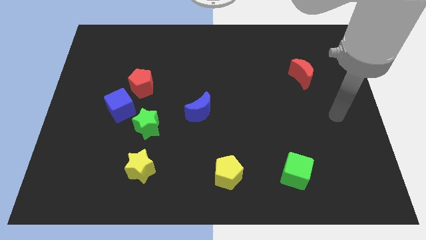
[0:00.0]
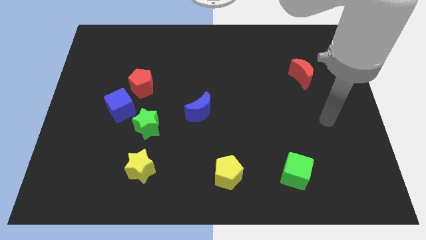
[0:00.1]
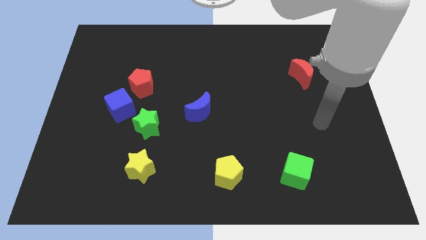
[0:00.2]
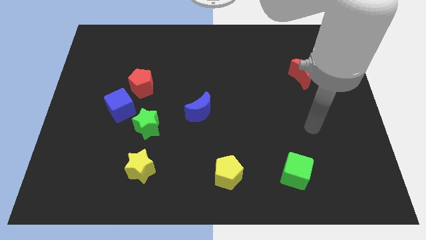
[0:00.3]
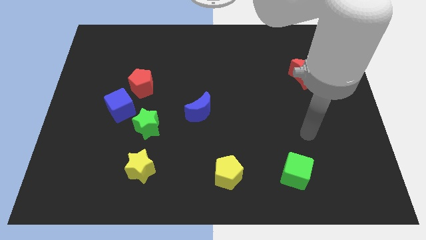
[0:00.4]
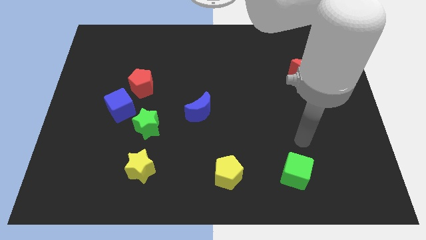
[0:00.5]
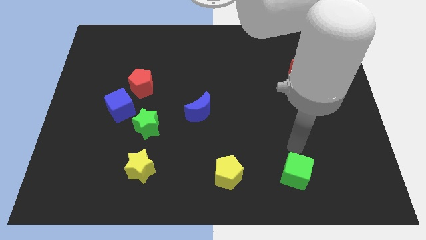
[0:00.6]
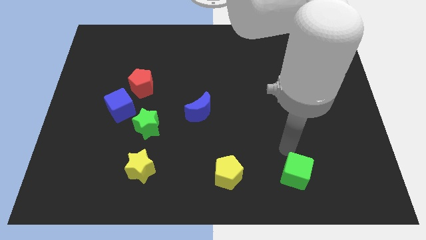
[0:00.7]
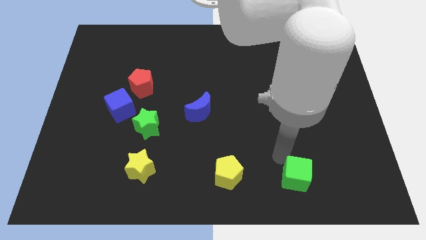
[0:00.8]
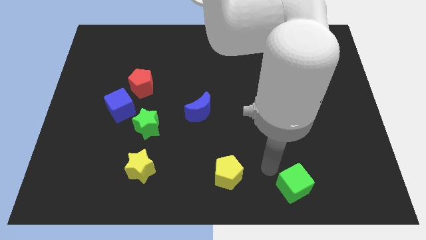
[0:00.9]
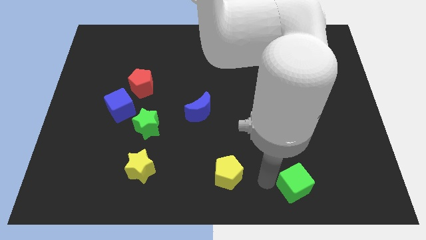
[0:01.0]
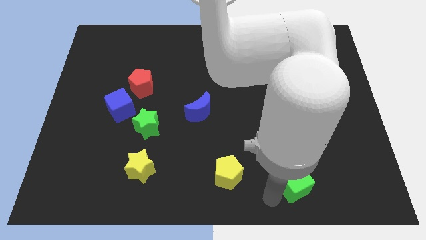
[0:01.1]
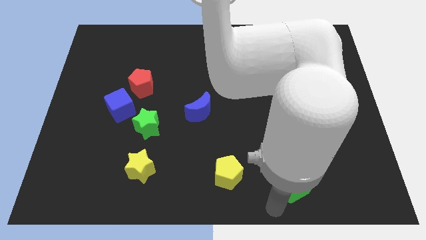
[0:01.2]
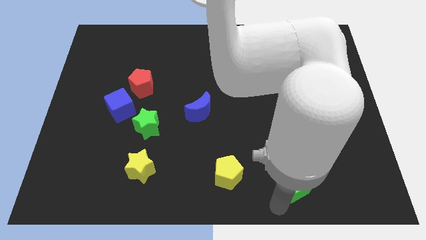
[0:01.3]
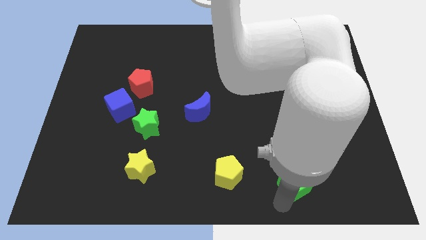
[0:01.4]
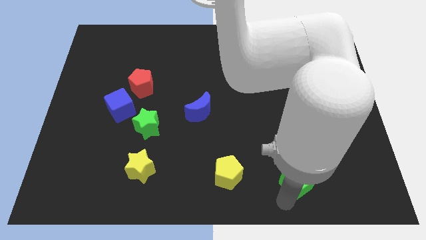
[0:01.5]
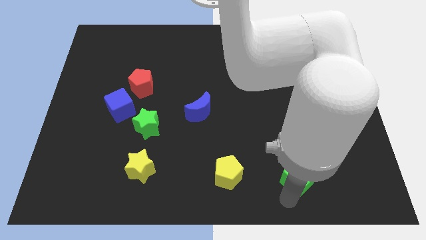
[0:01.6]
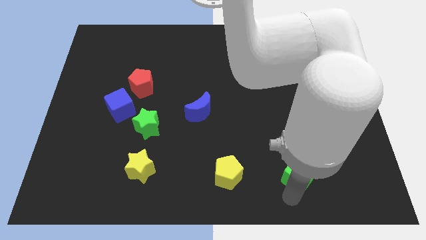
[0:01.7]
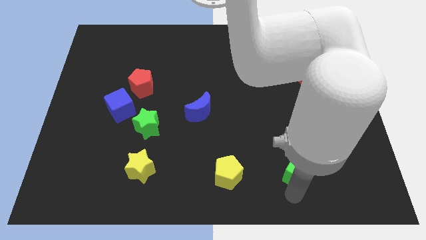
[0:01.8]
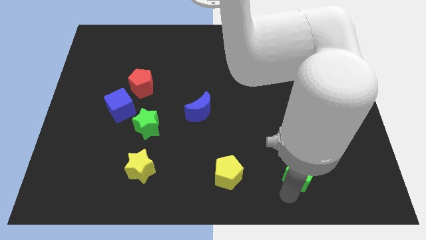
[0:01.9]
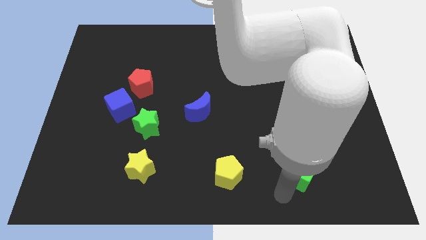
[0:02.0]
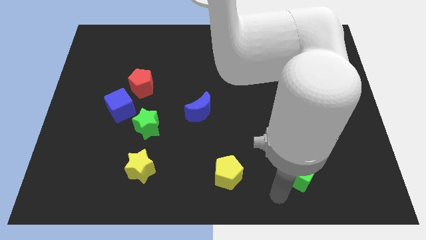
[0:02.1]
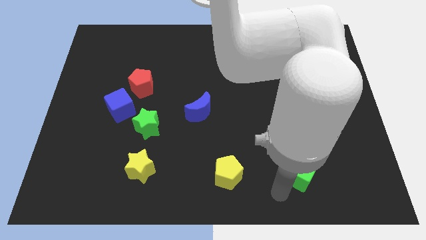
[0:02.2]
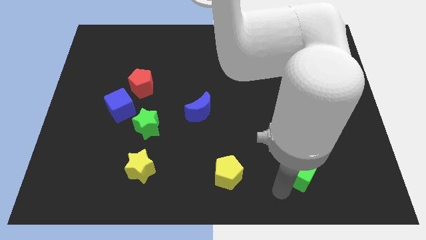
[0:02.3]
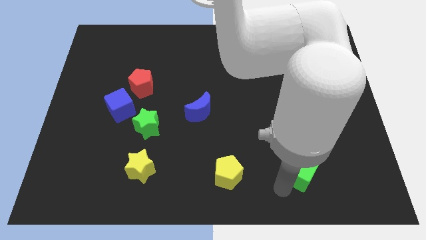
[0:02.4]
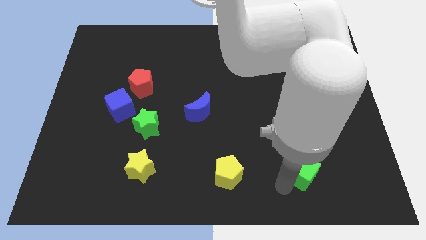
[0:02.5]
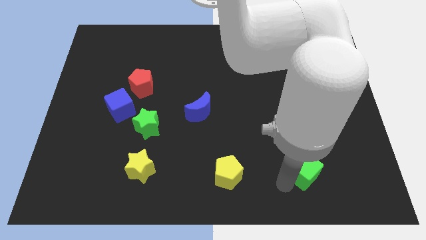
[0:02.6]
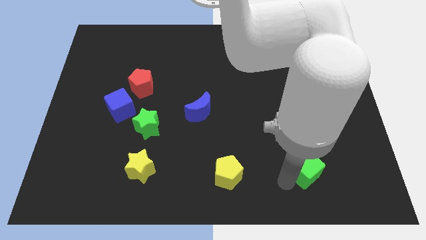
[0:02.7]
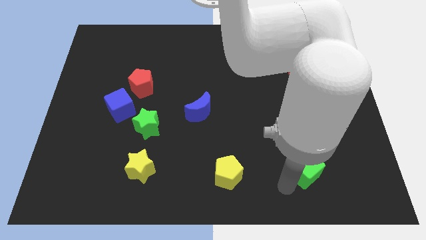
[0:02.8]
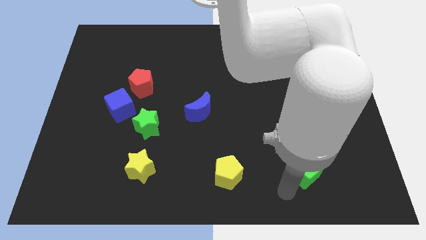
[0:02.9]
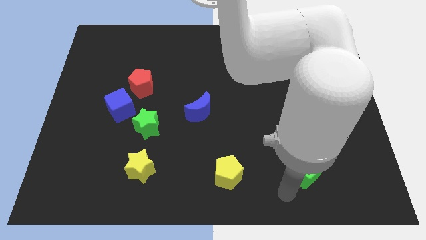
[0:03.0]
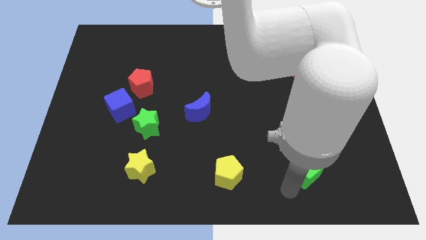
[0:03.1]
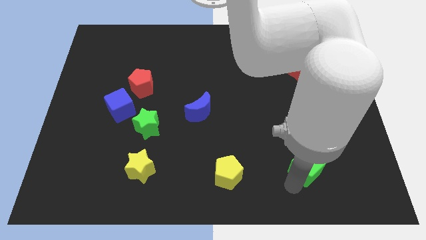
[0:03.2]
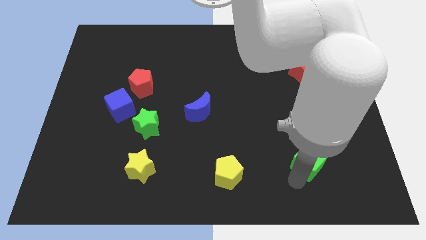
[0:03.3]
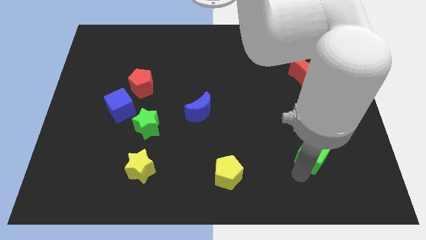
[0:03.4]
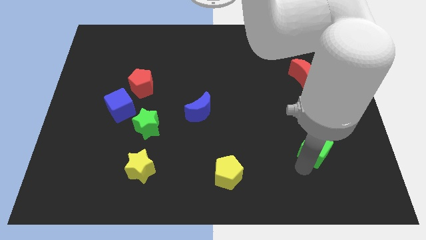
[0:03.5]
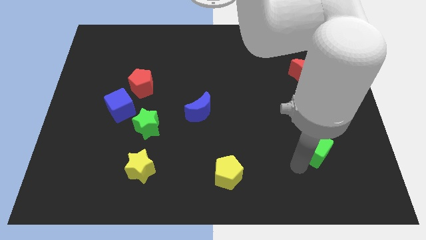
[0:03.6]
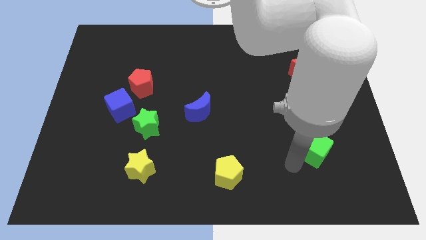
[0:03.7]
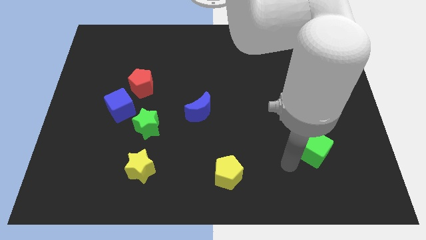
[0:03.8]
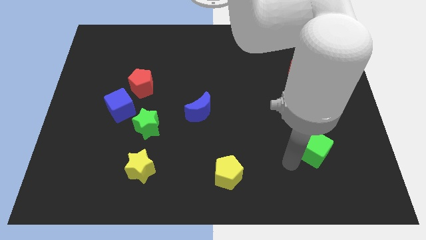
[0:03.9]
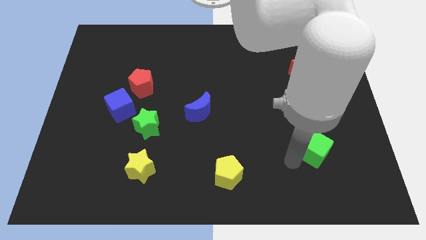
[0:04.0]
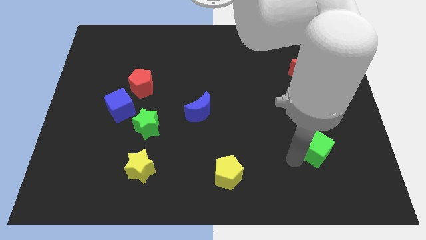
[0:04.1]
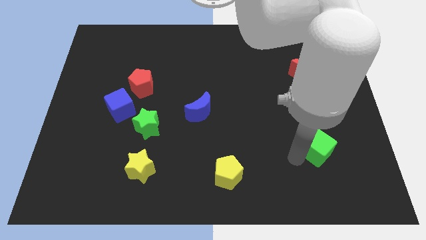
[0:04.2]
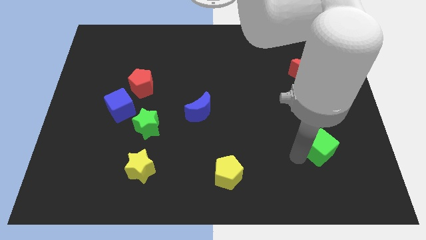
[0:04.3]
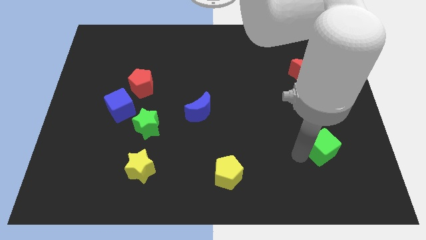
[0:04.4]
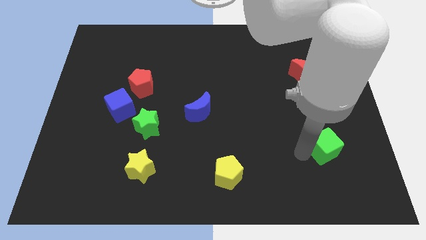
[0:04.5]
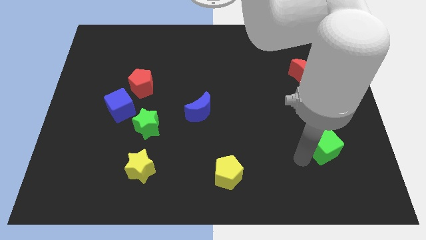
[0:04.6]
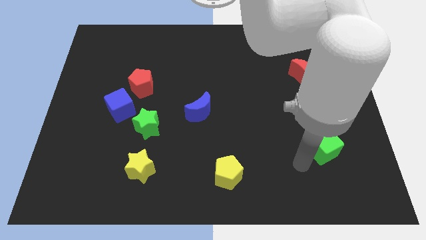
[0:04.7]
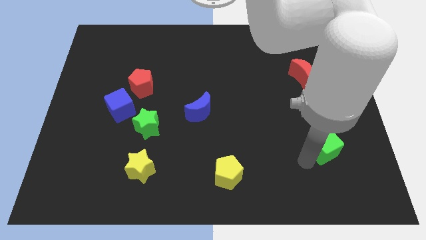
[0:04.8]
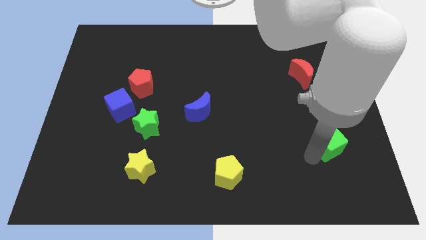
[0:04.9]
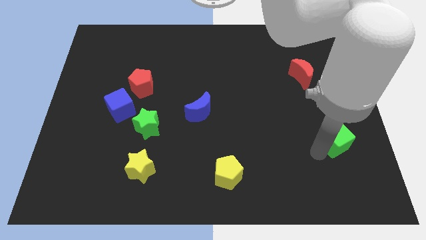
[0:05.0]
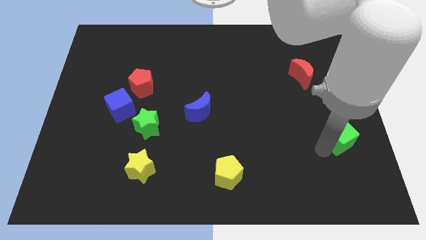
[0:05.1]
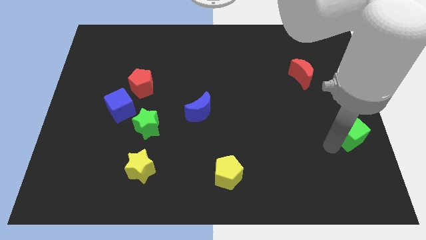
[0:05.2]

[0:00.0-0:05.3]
push the green cube to the center right

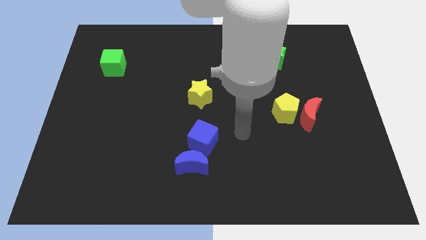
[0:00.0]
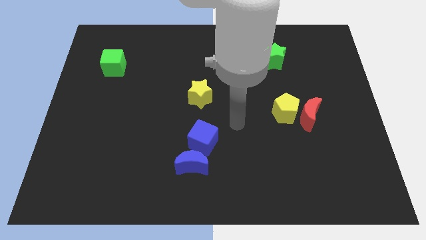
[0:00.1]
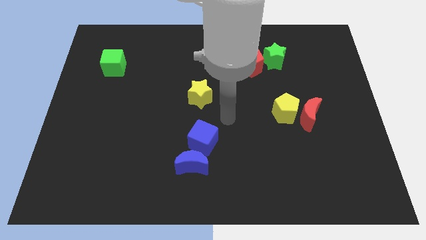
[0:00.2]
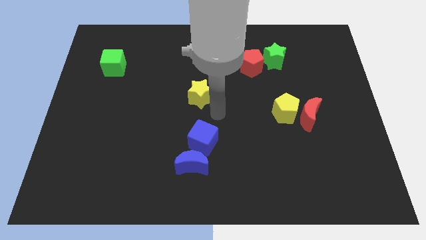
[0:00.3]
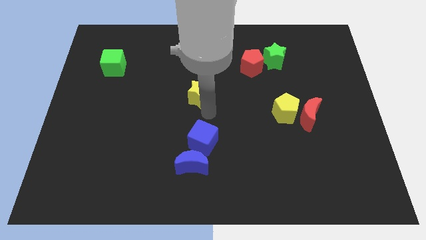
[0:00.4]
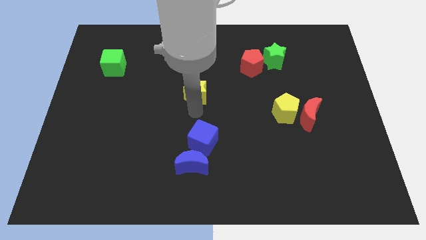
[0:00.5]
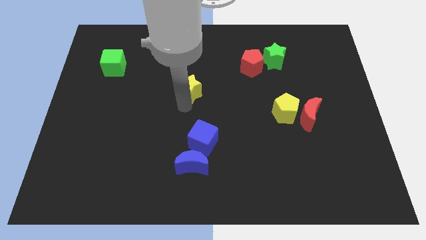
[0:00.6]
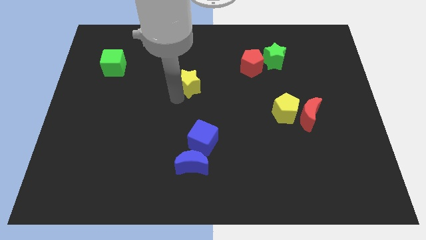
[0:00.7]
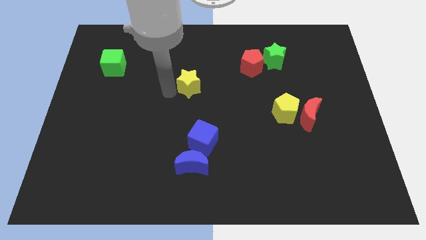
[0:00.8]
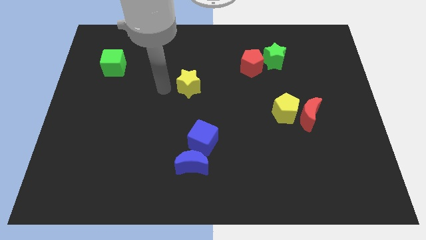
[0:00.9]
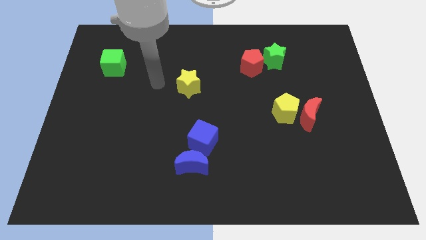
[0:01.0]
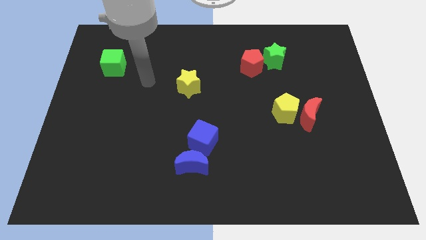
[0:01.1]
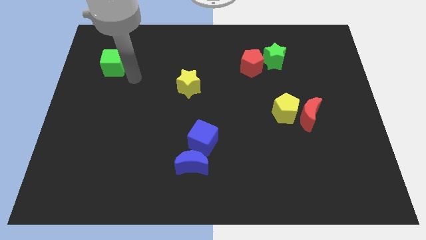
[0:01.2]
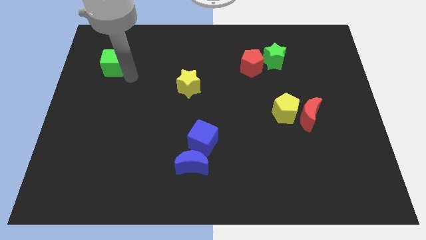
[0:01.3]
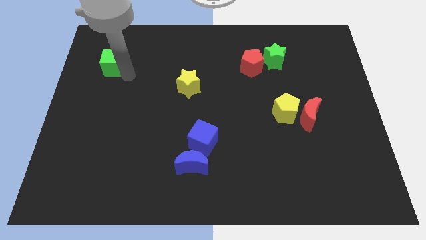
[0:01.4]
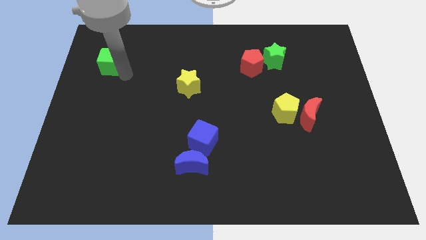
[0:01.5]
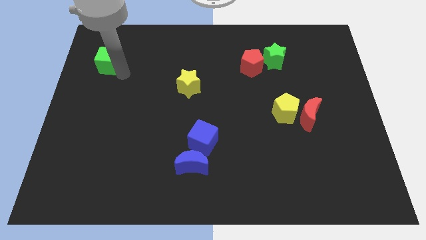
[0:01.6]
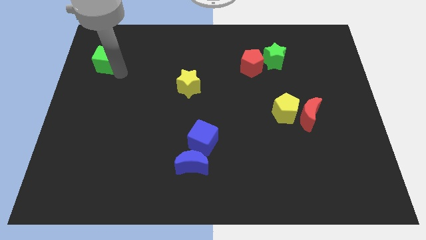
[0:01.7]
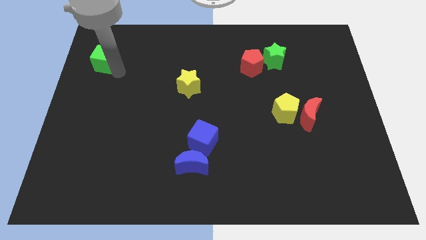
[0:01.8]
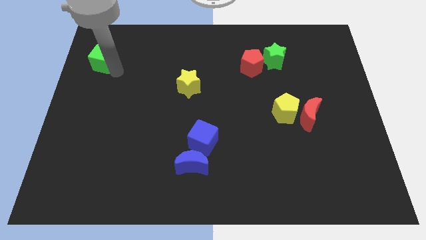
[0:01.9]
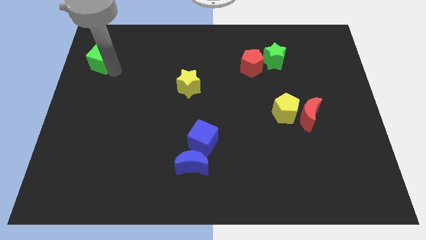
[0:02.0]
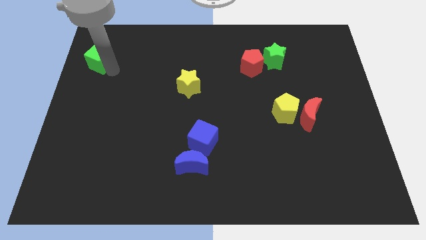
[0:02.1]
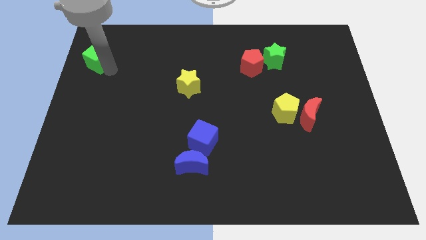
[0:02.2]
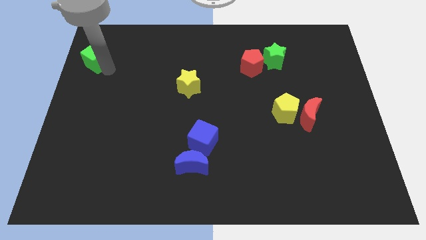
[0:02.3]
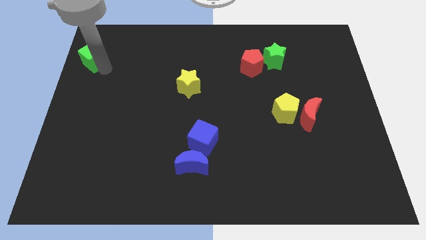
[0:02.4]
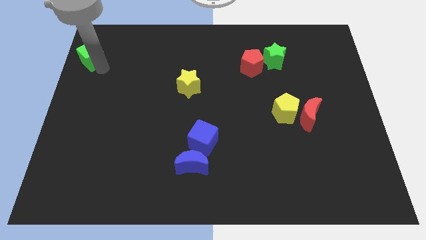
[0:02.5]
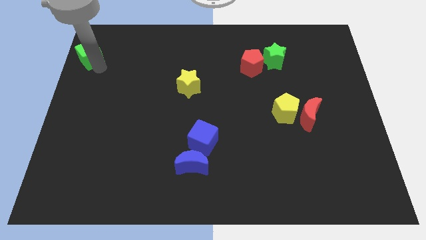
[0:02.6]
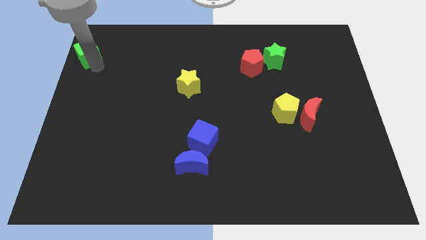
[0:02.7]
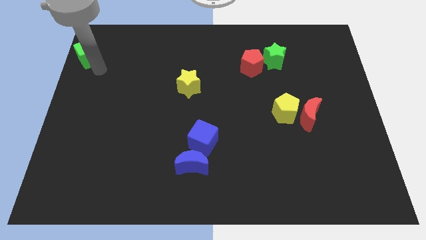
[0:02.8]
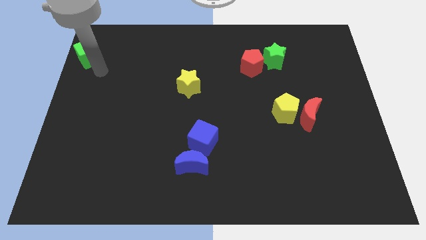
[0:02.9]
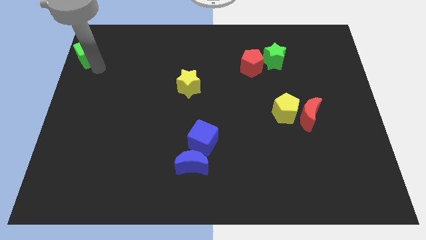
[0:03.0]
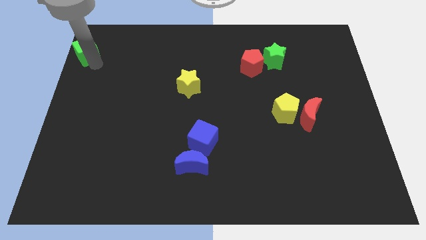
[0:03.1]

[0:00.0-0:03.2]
slide the green cube to the top left
